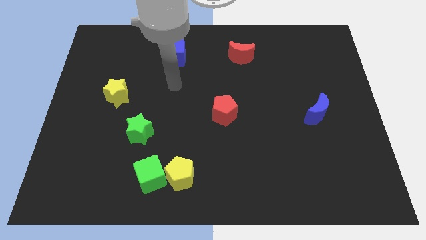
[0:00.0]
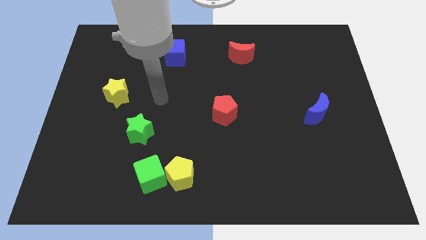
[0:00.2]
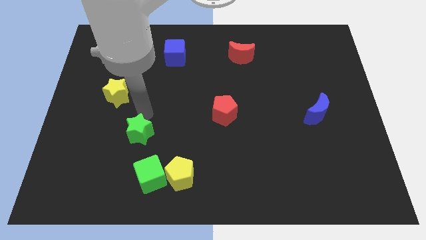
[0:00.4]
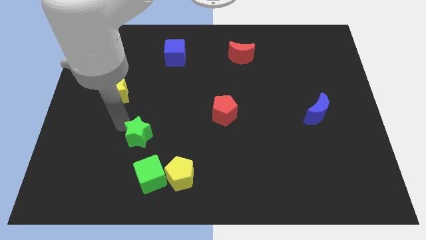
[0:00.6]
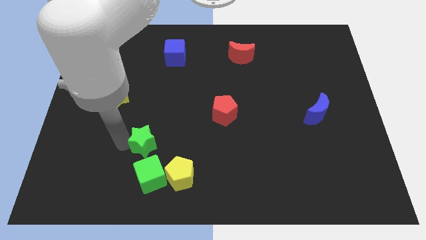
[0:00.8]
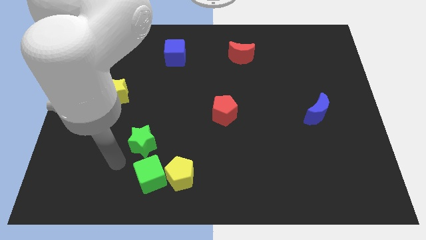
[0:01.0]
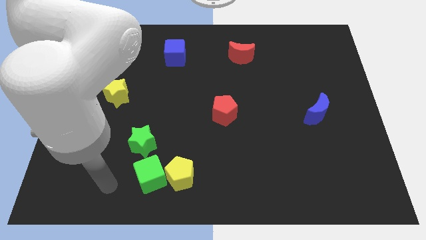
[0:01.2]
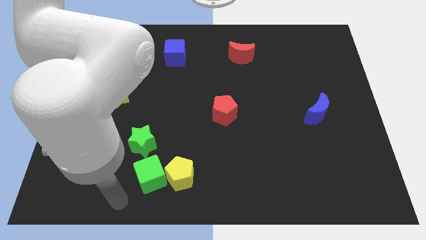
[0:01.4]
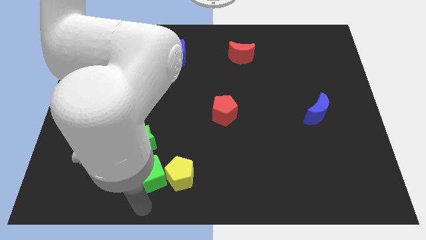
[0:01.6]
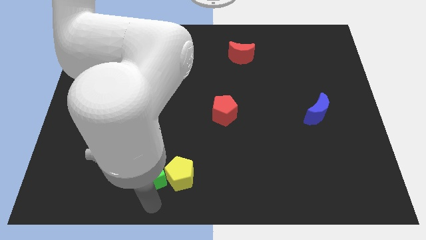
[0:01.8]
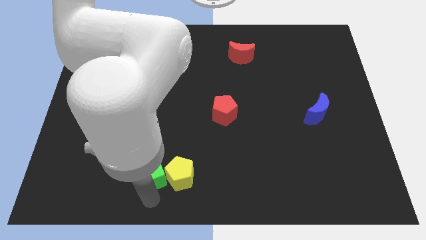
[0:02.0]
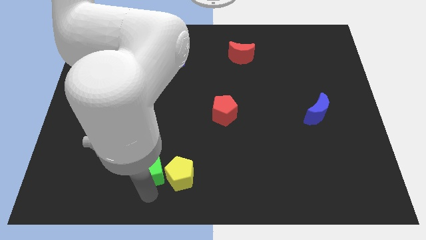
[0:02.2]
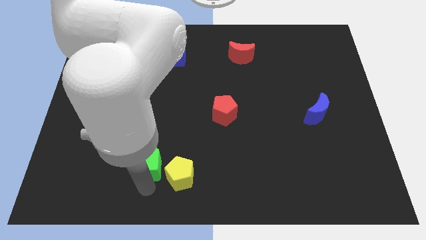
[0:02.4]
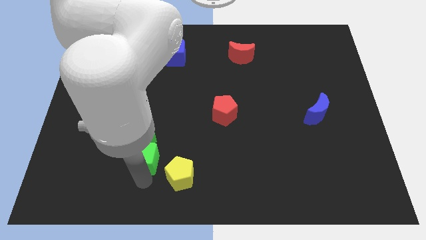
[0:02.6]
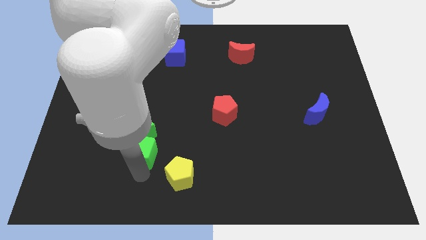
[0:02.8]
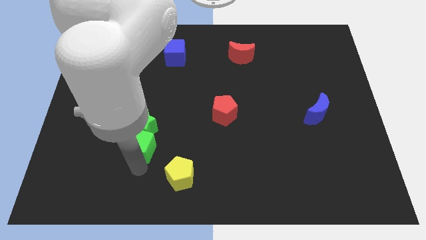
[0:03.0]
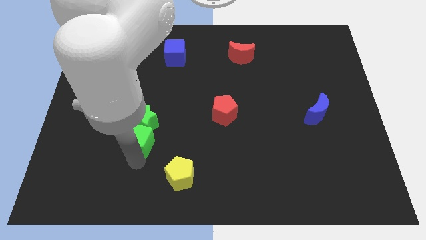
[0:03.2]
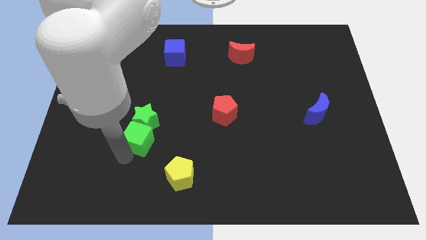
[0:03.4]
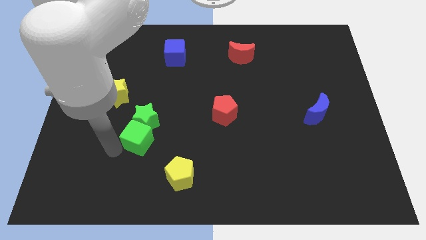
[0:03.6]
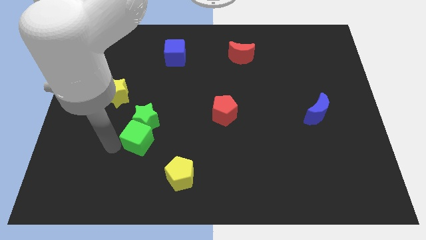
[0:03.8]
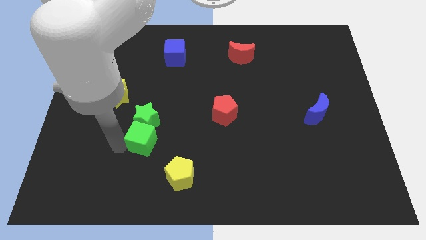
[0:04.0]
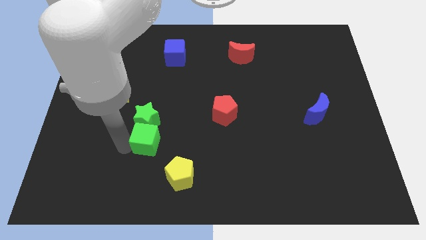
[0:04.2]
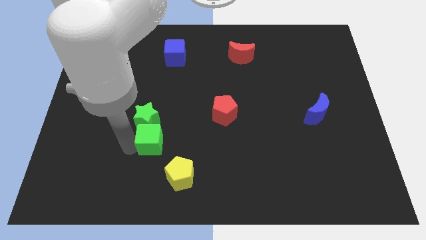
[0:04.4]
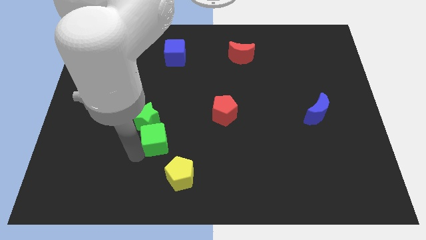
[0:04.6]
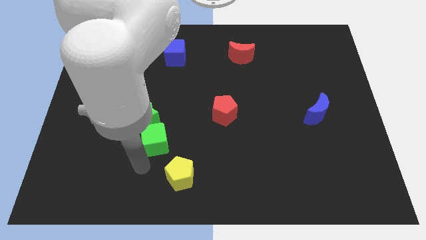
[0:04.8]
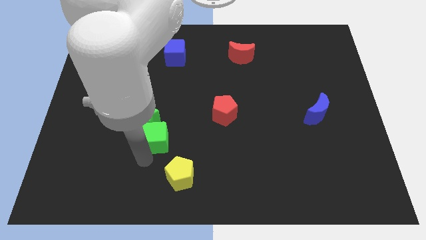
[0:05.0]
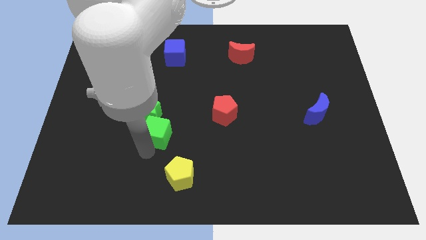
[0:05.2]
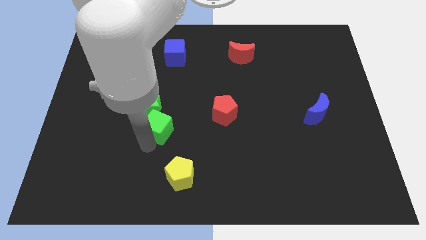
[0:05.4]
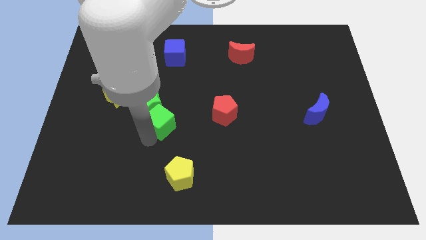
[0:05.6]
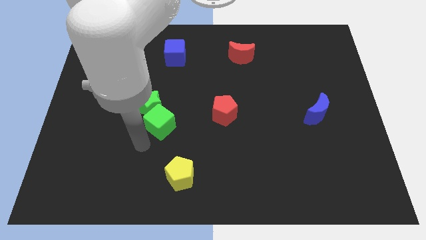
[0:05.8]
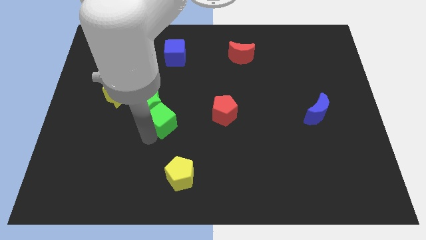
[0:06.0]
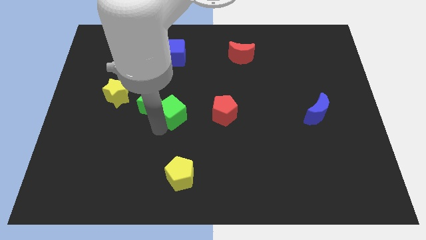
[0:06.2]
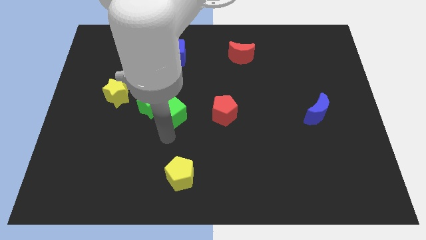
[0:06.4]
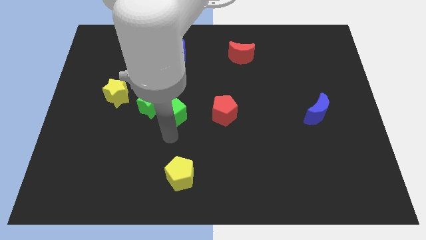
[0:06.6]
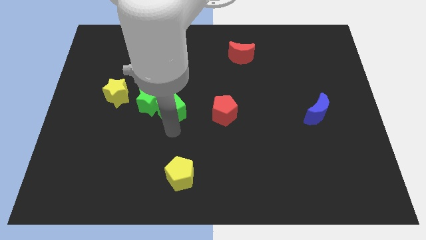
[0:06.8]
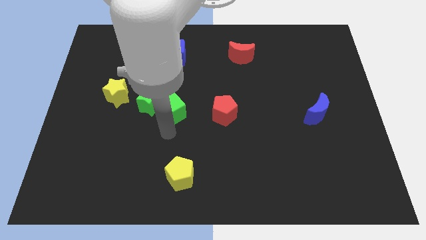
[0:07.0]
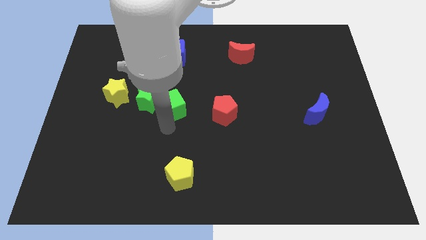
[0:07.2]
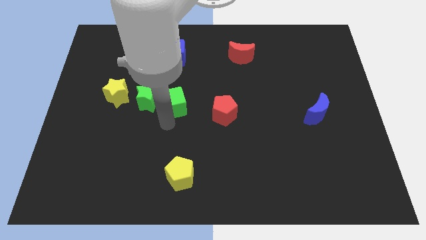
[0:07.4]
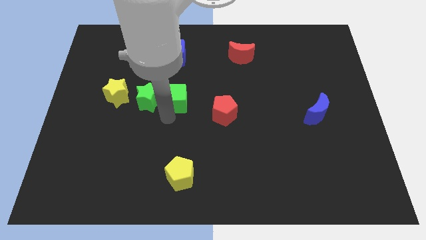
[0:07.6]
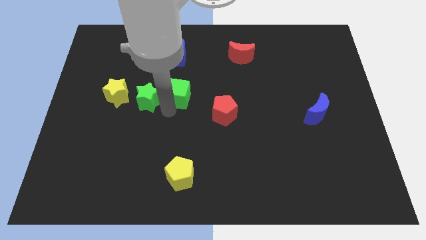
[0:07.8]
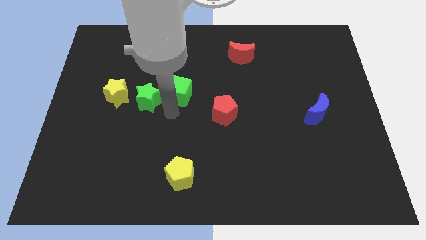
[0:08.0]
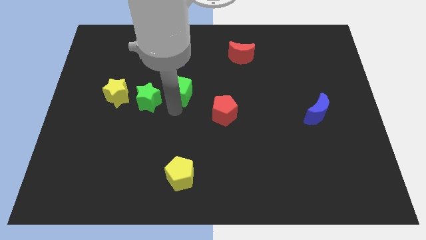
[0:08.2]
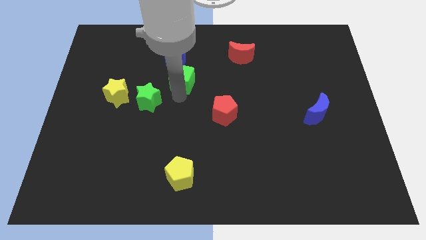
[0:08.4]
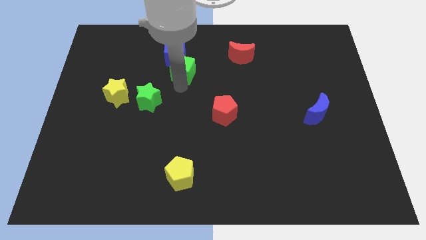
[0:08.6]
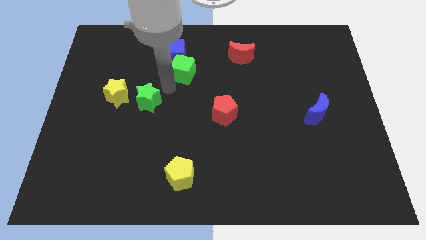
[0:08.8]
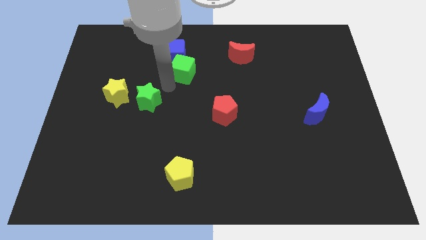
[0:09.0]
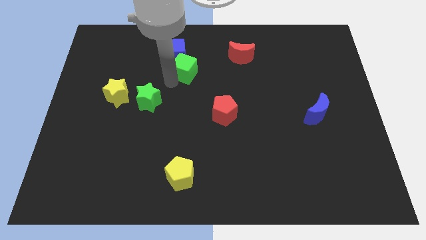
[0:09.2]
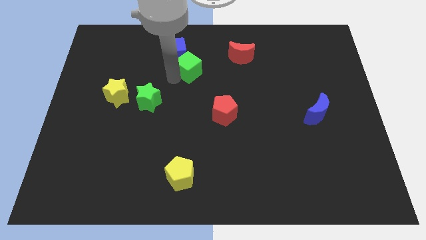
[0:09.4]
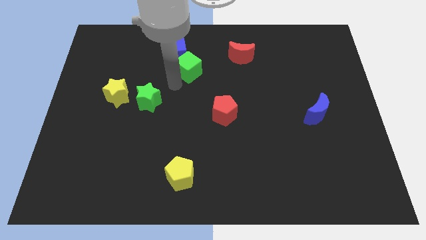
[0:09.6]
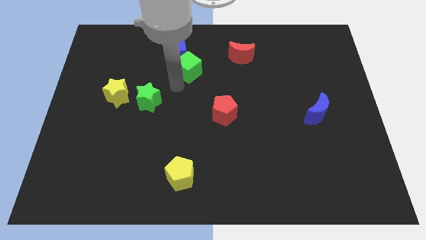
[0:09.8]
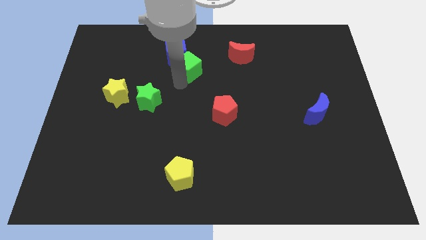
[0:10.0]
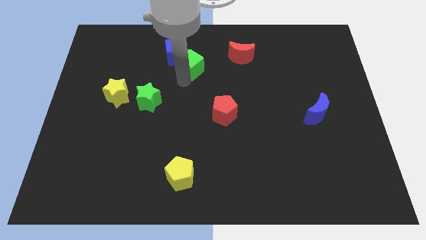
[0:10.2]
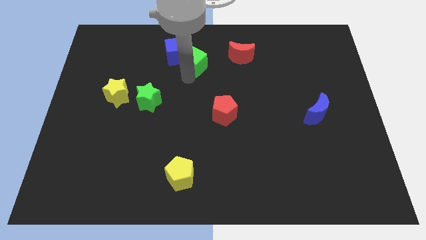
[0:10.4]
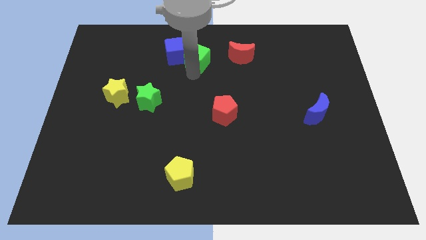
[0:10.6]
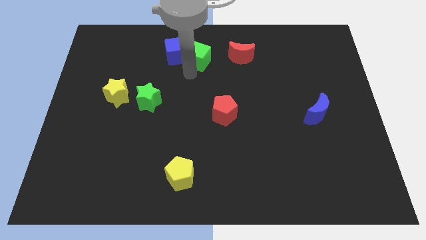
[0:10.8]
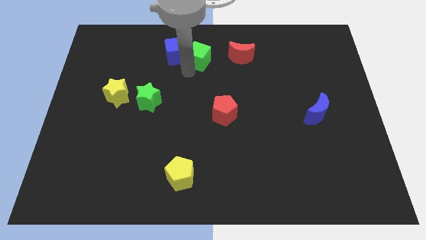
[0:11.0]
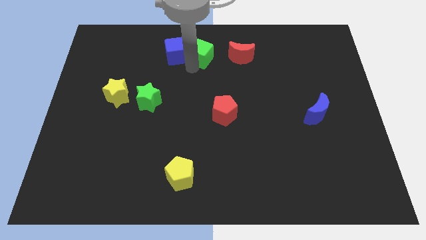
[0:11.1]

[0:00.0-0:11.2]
push the green cube to the top side

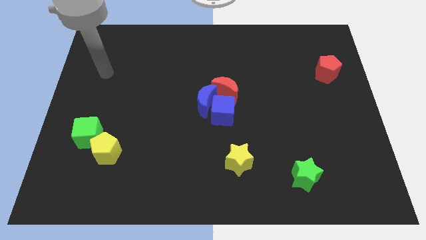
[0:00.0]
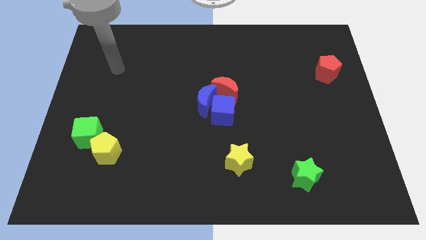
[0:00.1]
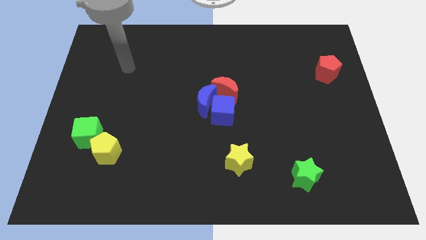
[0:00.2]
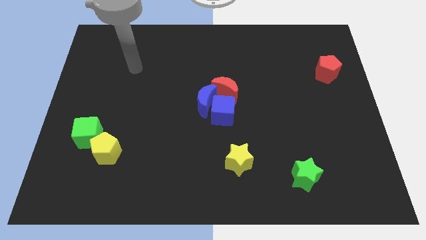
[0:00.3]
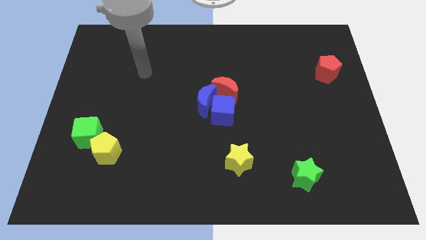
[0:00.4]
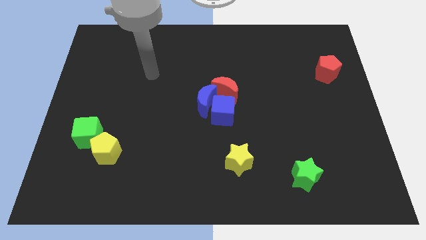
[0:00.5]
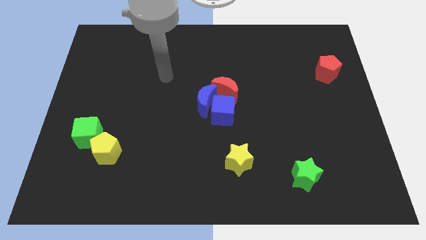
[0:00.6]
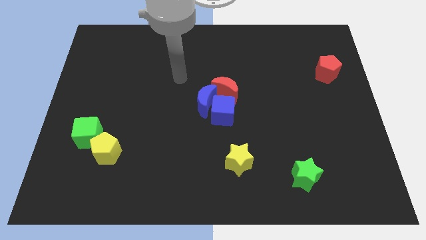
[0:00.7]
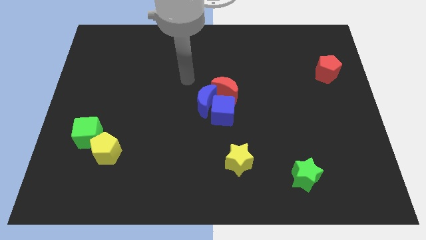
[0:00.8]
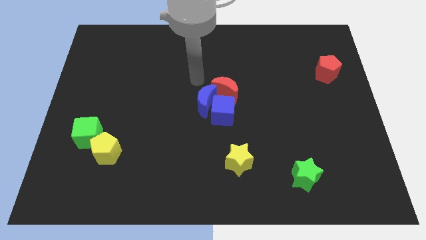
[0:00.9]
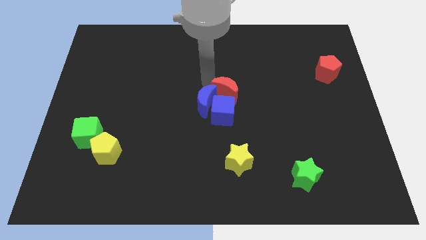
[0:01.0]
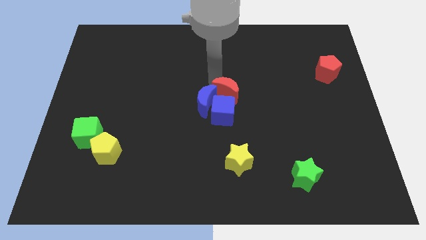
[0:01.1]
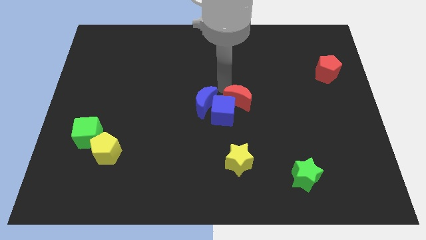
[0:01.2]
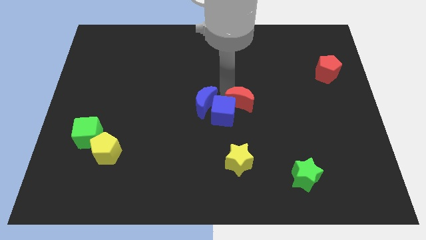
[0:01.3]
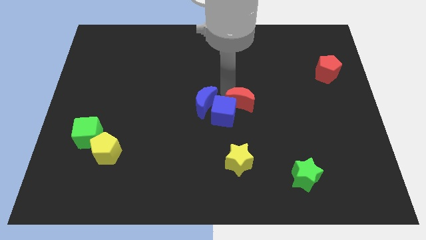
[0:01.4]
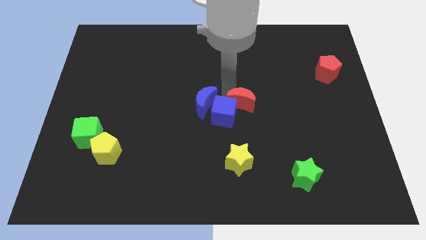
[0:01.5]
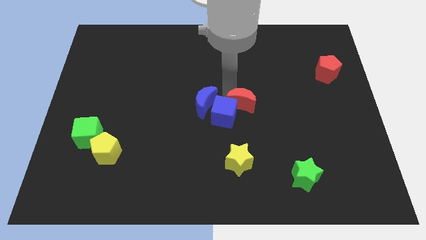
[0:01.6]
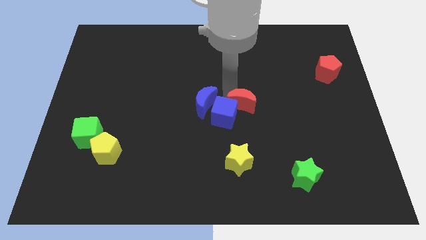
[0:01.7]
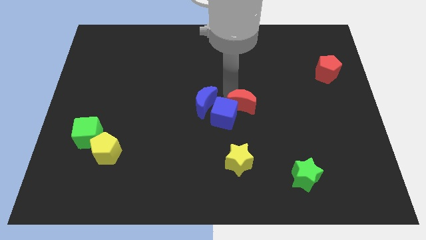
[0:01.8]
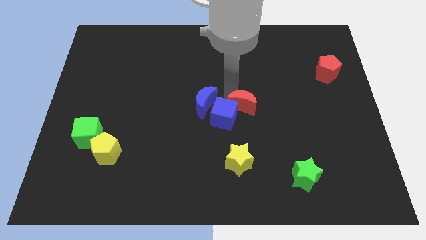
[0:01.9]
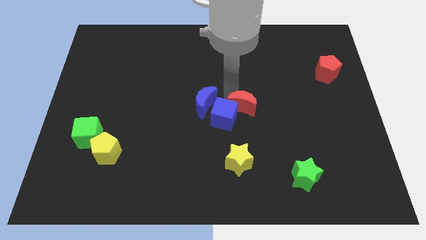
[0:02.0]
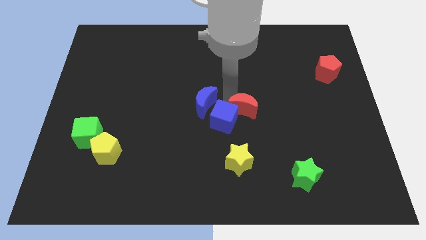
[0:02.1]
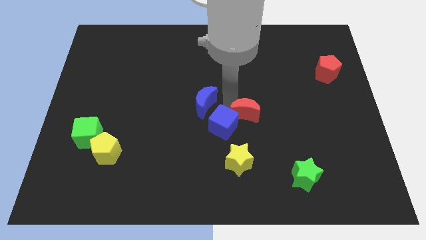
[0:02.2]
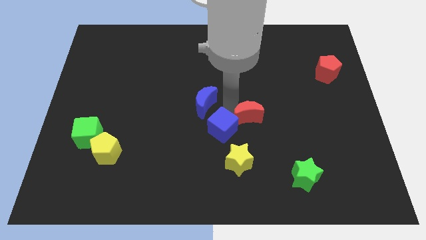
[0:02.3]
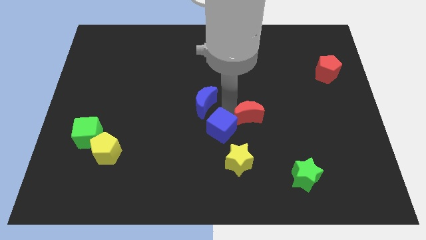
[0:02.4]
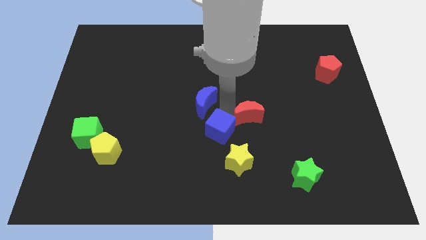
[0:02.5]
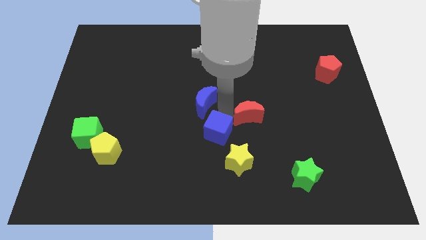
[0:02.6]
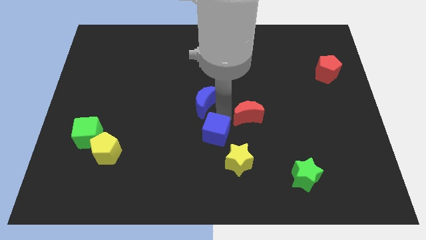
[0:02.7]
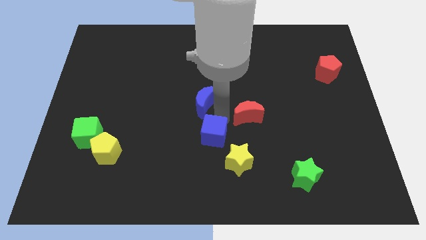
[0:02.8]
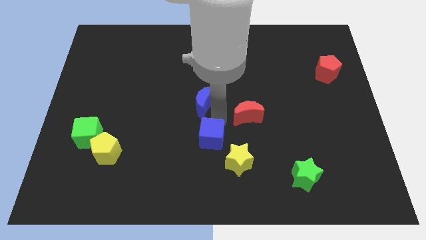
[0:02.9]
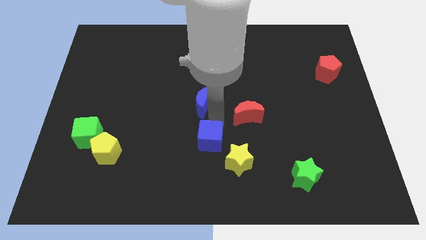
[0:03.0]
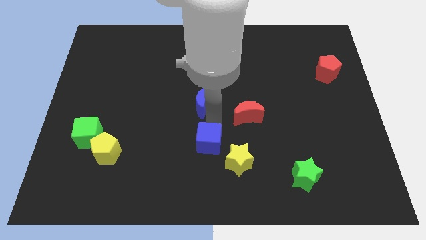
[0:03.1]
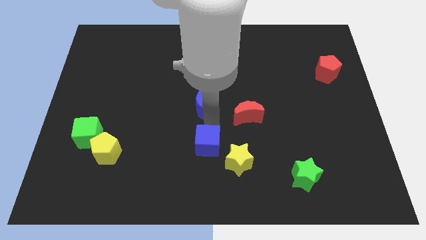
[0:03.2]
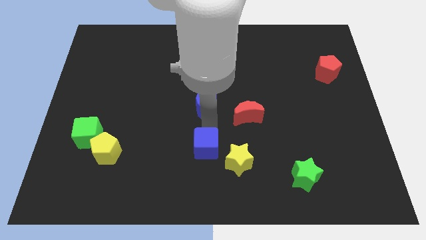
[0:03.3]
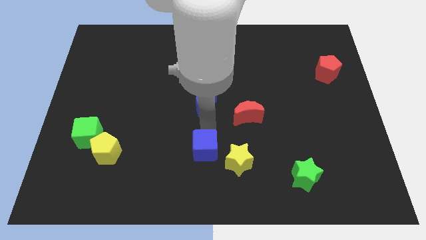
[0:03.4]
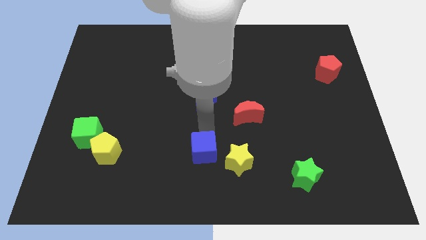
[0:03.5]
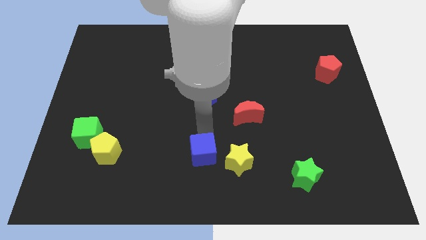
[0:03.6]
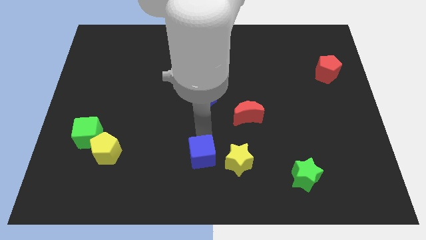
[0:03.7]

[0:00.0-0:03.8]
put the blue cube to the bottom
